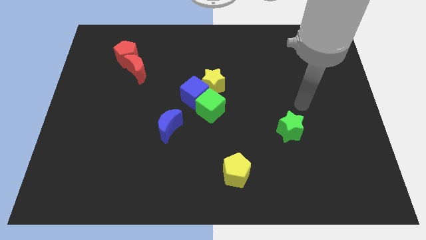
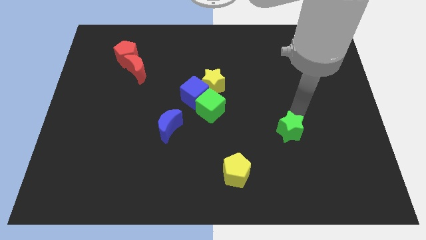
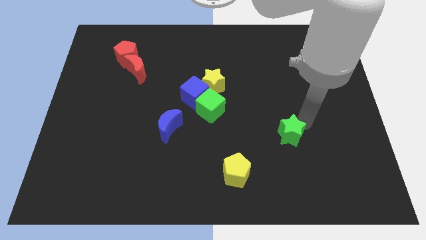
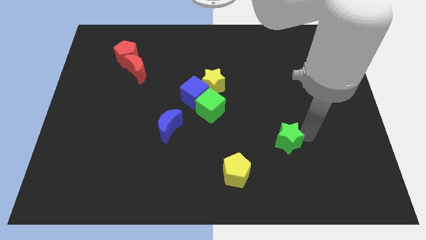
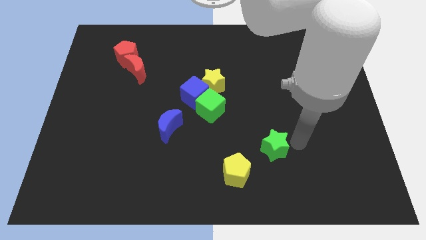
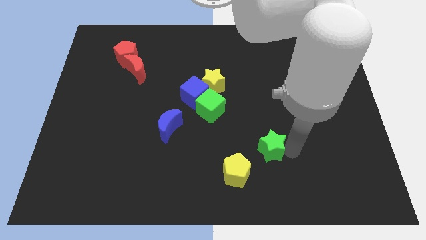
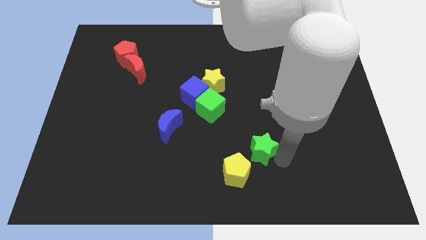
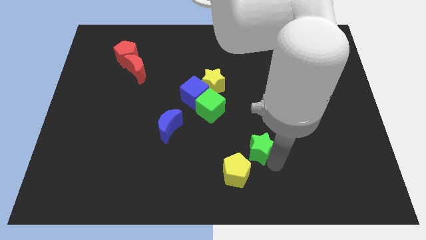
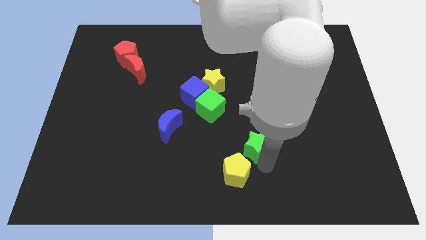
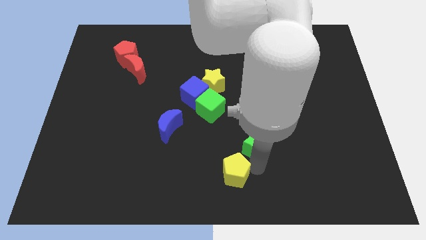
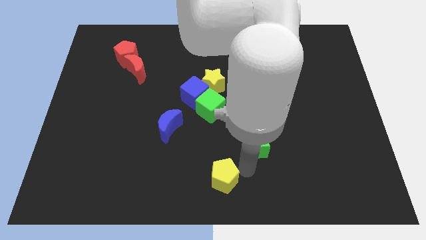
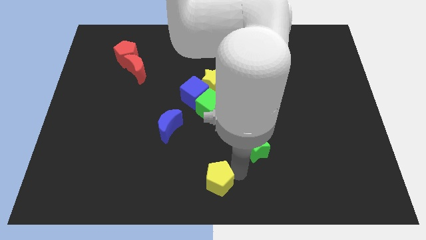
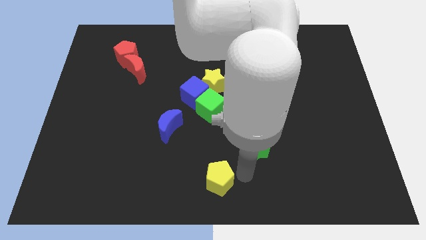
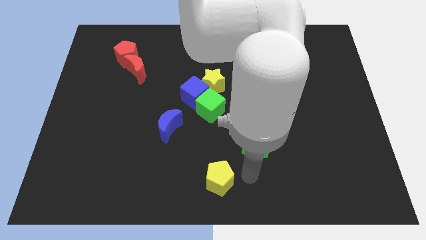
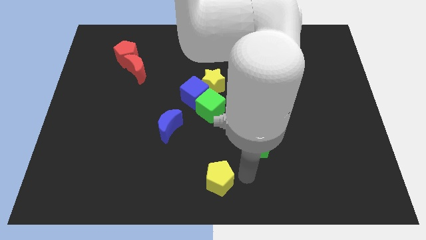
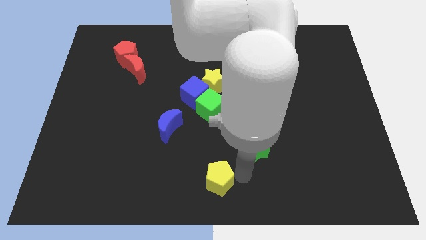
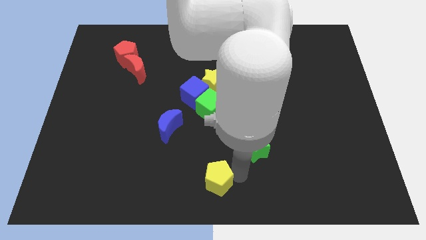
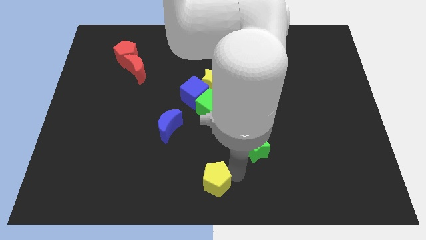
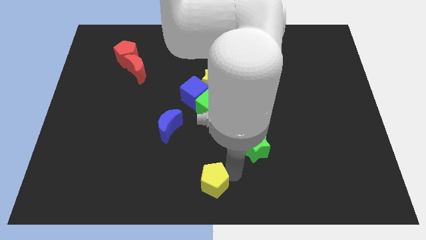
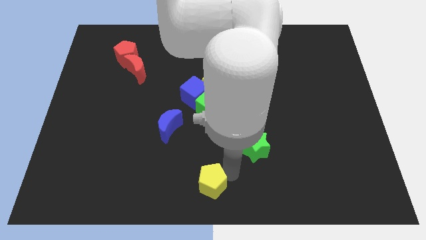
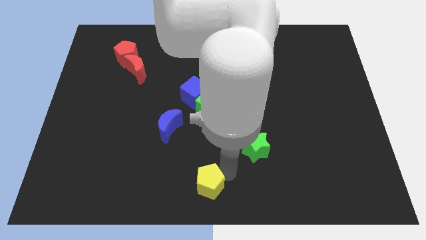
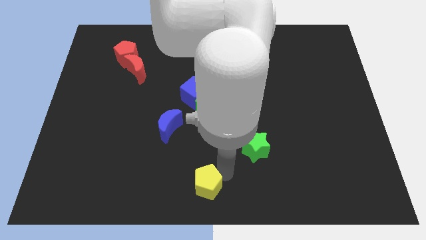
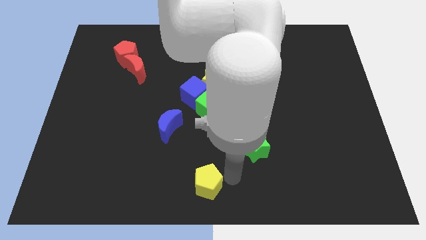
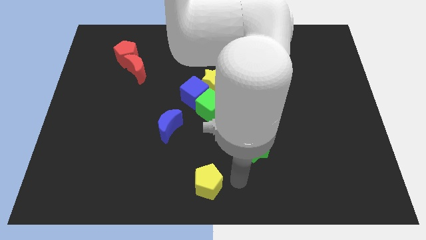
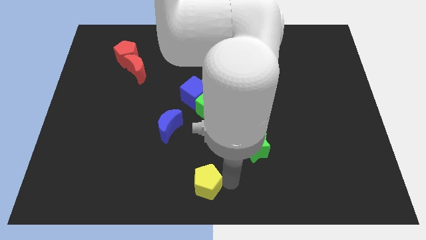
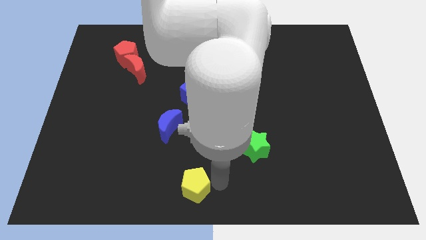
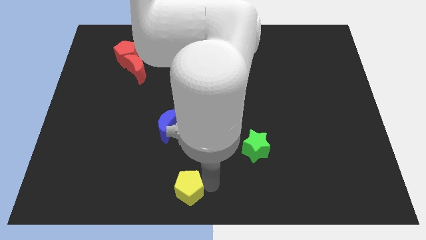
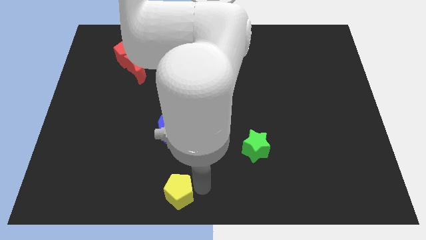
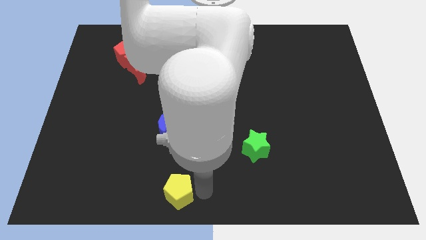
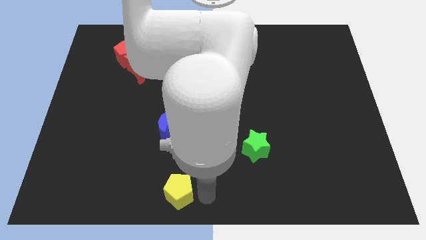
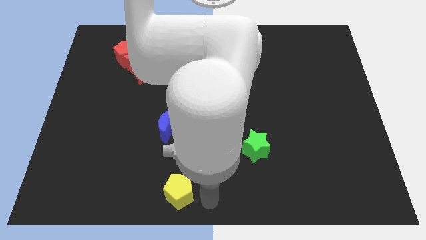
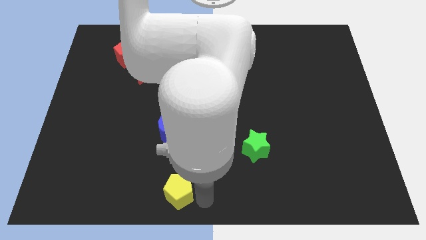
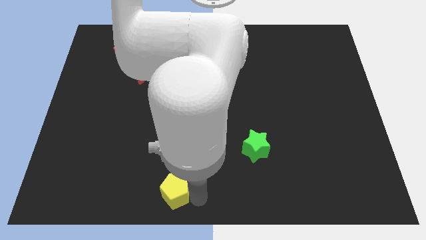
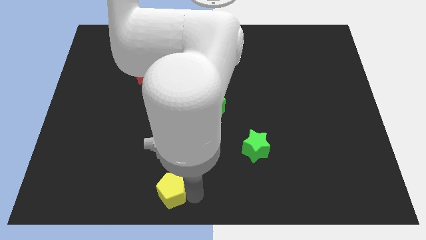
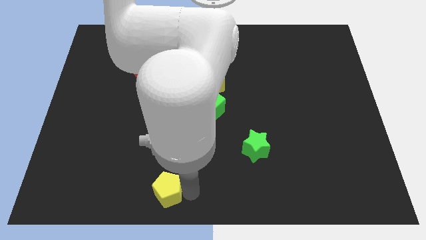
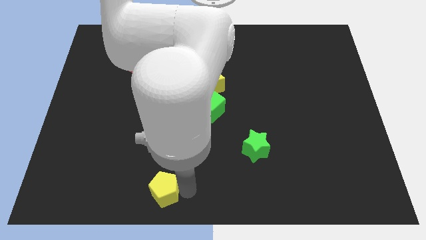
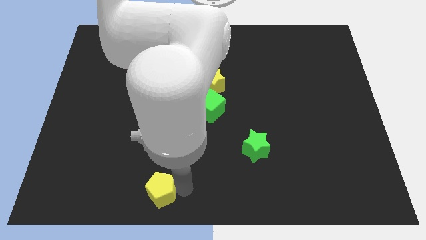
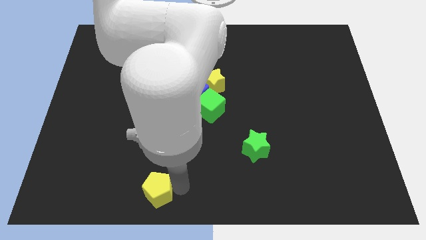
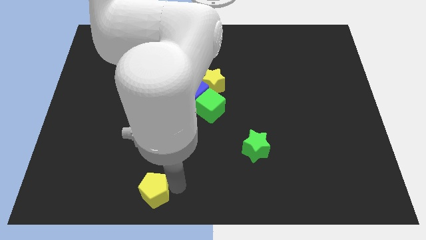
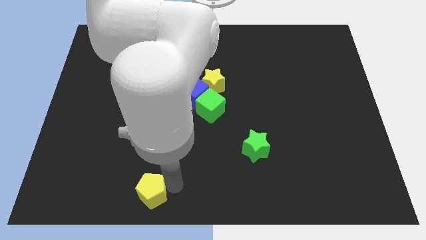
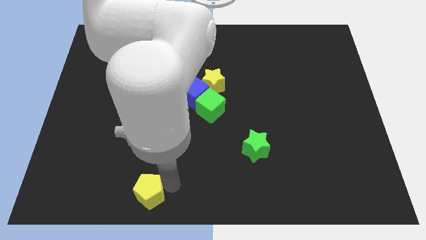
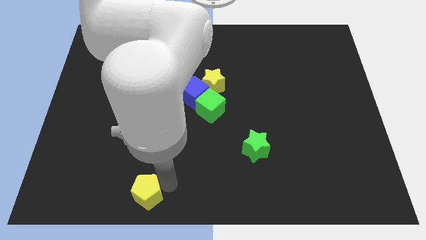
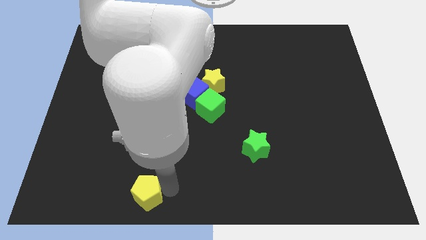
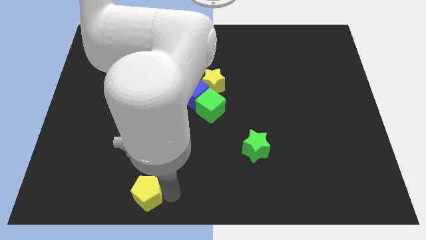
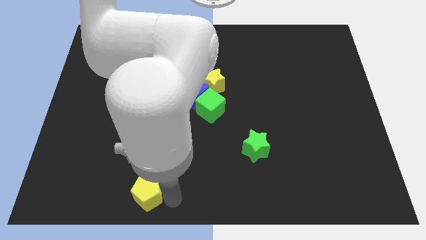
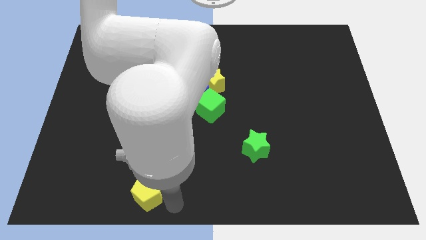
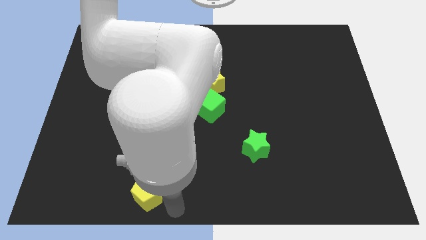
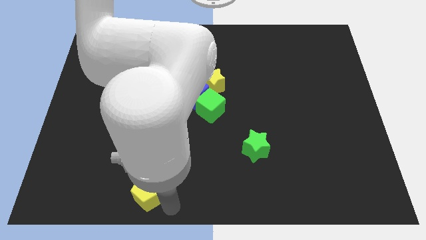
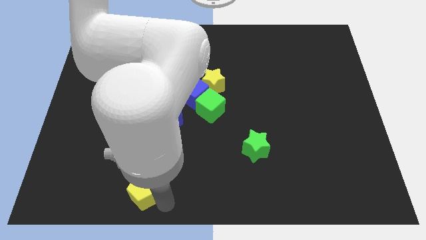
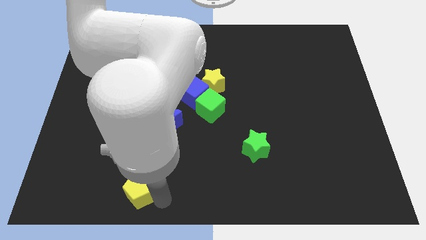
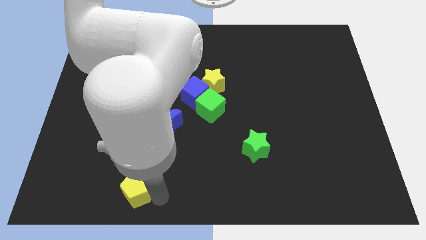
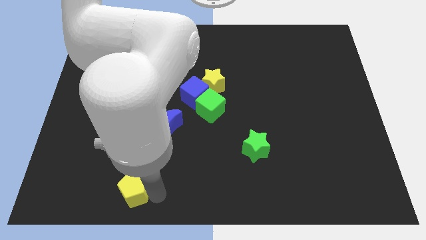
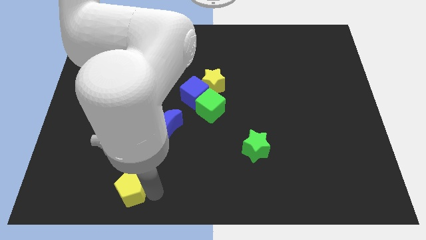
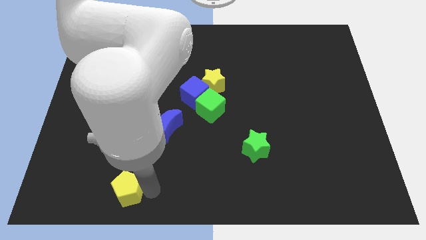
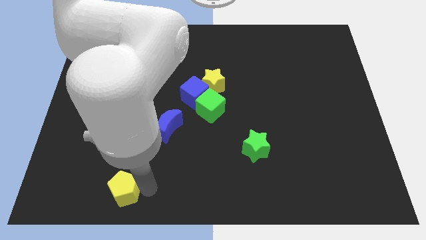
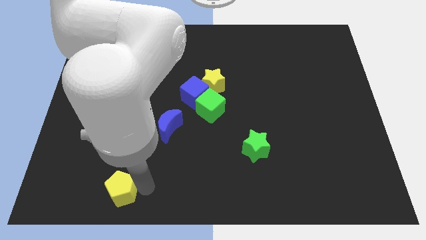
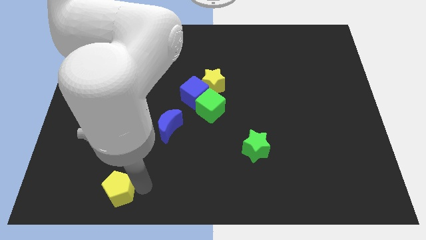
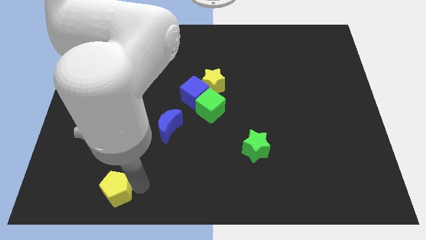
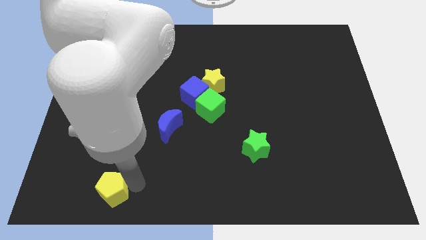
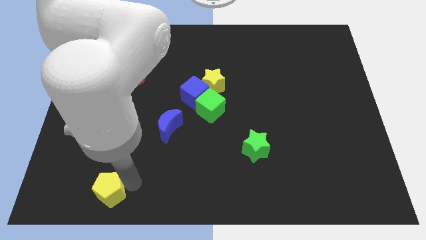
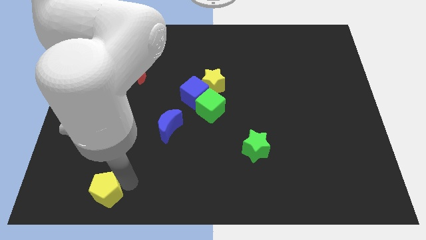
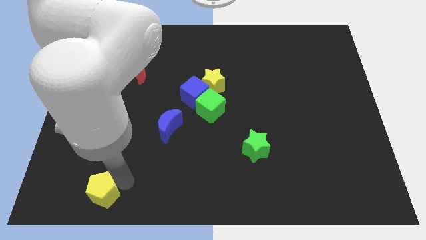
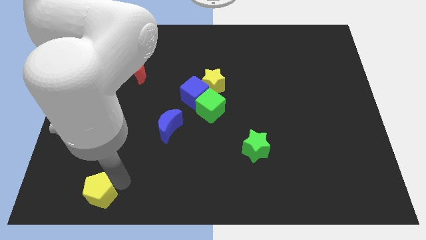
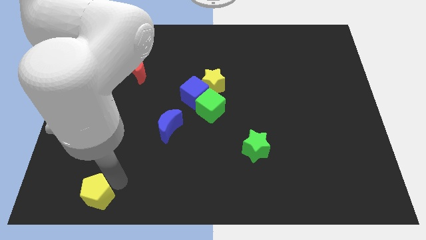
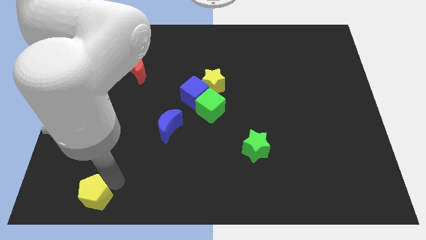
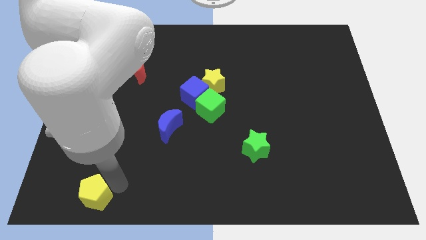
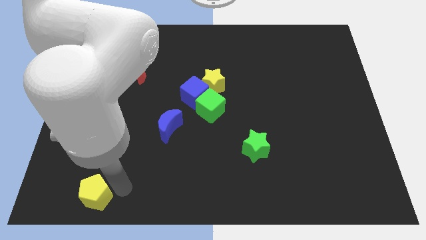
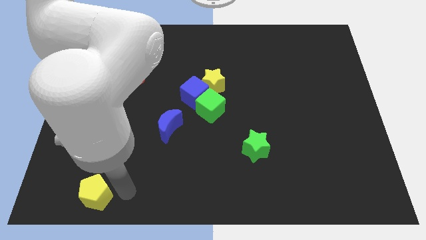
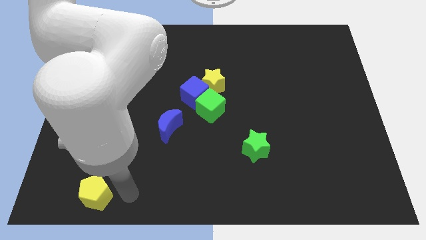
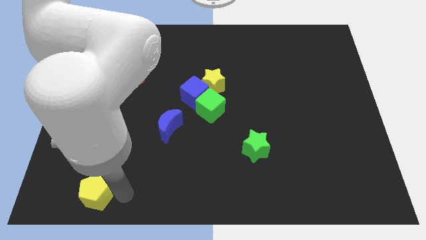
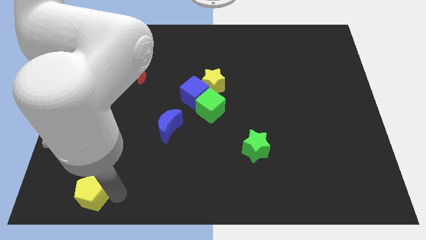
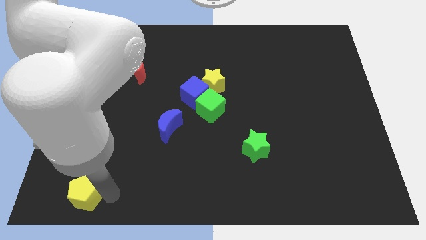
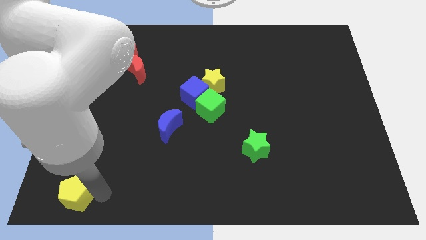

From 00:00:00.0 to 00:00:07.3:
push the yellow pentagon to the bottom left
